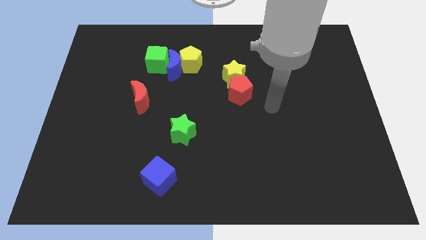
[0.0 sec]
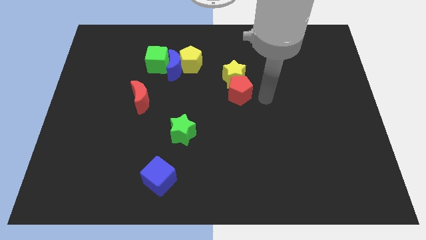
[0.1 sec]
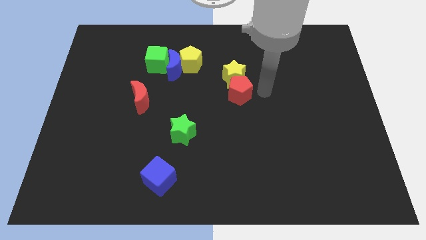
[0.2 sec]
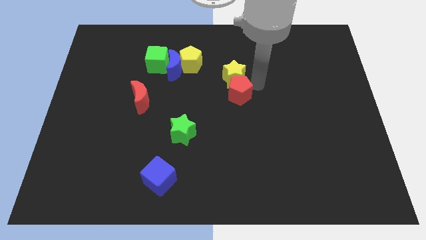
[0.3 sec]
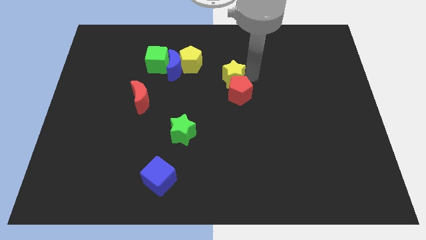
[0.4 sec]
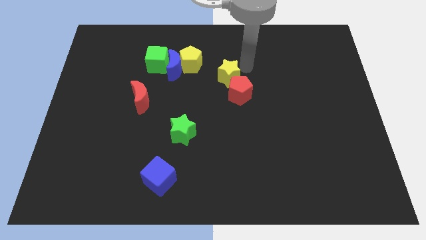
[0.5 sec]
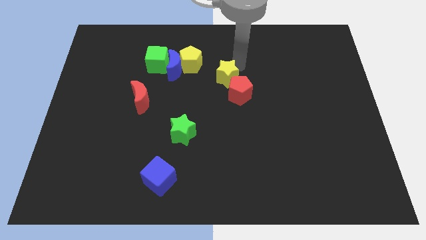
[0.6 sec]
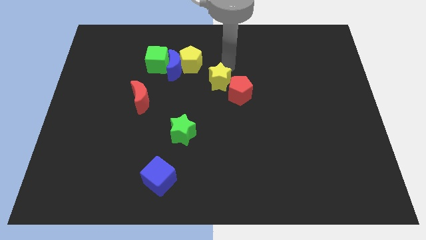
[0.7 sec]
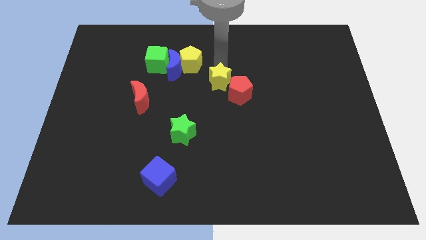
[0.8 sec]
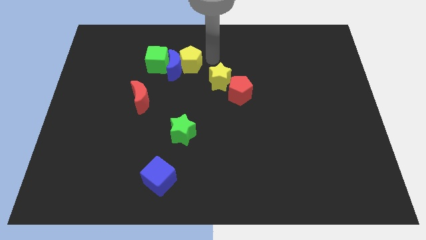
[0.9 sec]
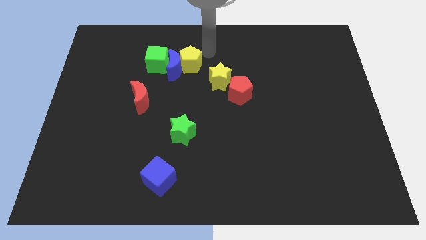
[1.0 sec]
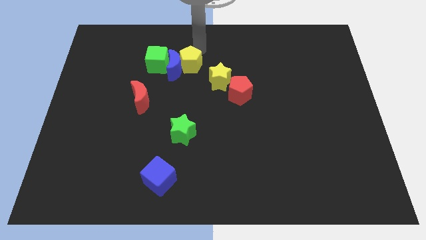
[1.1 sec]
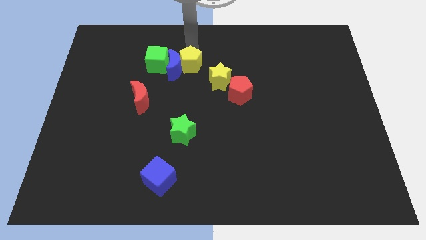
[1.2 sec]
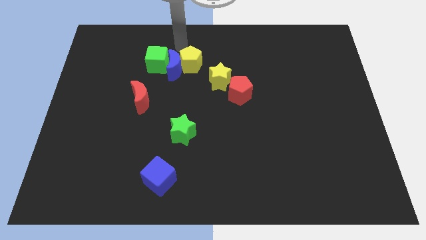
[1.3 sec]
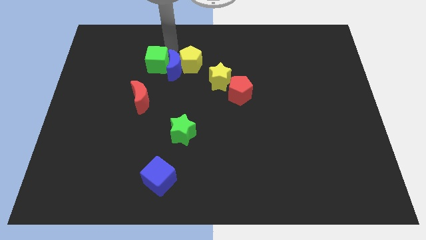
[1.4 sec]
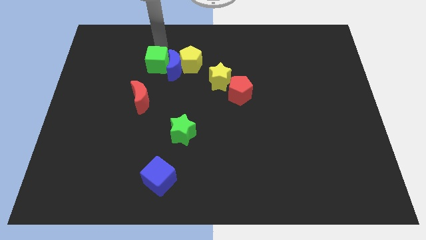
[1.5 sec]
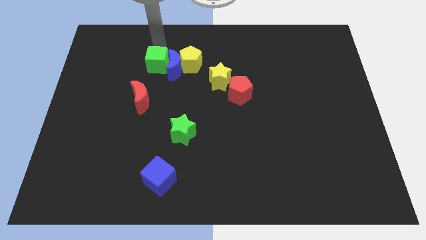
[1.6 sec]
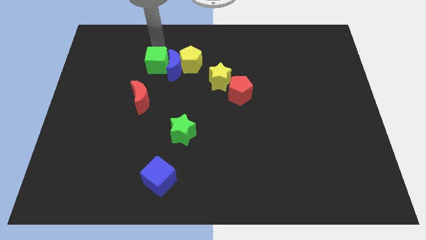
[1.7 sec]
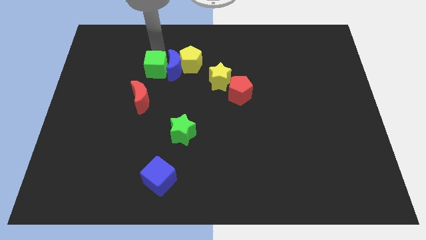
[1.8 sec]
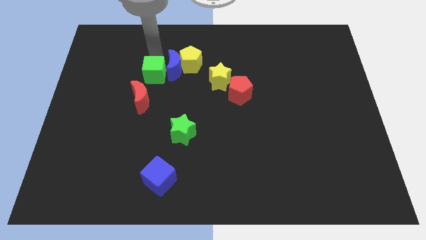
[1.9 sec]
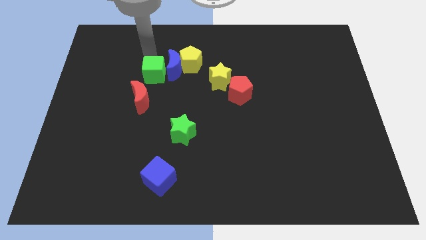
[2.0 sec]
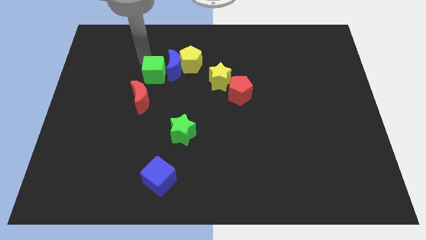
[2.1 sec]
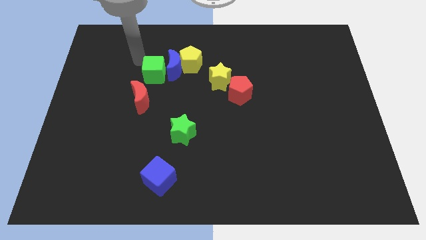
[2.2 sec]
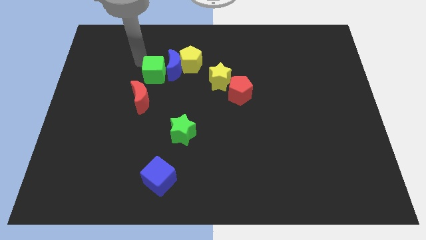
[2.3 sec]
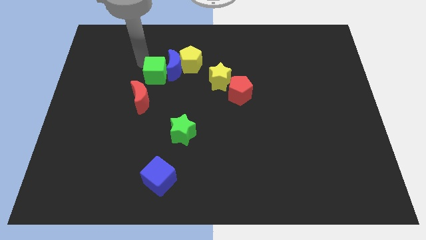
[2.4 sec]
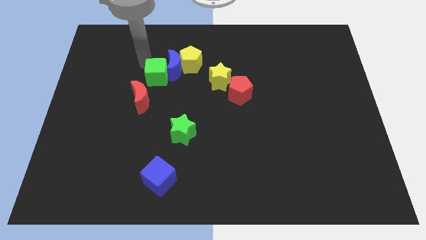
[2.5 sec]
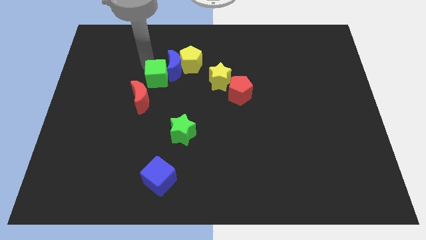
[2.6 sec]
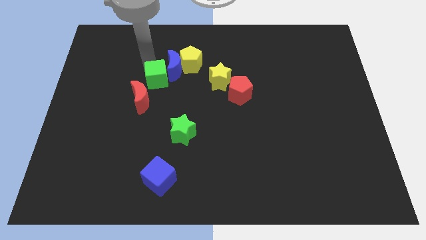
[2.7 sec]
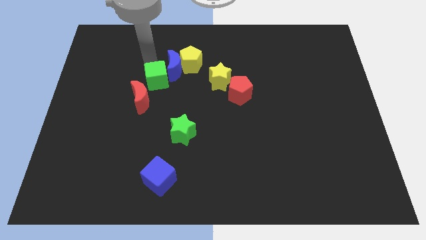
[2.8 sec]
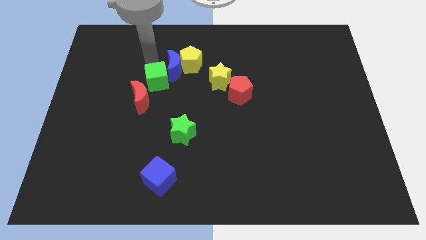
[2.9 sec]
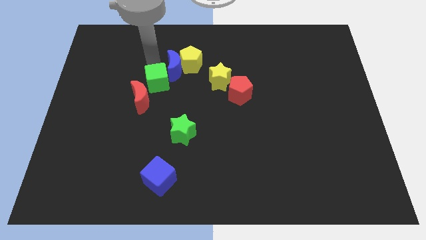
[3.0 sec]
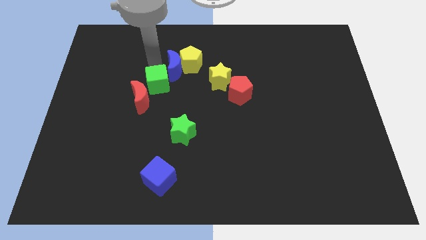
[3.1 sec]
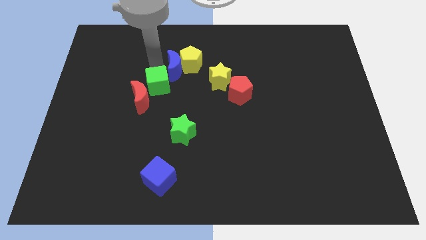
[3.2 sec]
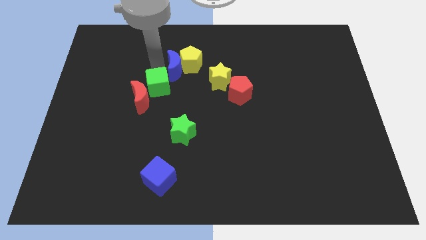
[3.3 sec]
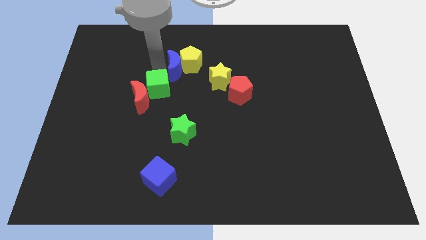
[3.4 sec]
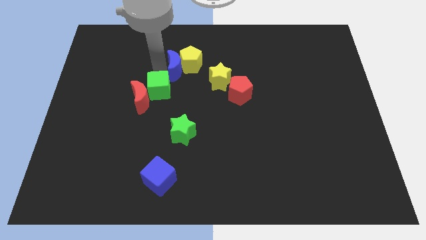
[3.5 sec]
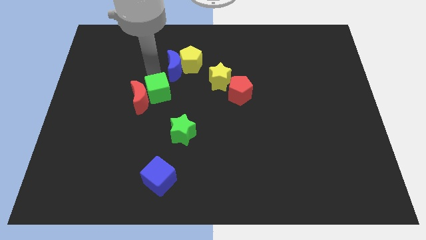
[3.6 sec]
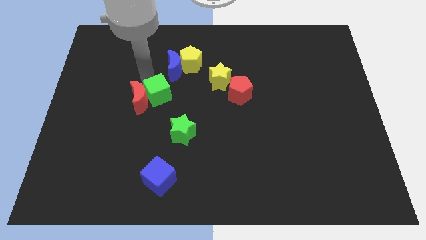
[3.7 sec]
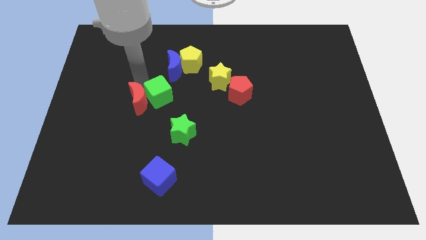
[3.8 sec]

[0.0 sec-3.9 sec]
slide the green cube downwards and to the right a little bit

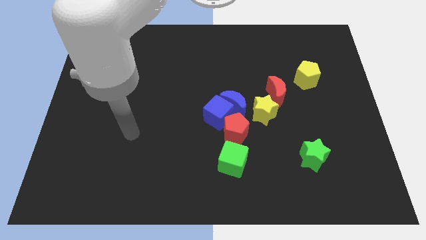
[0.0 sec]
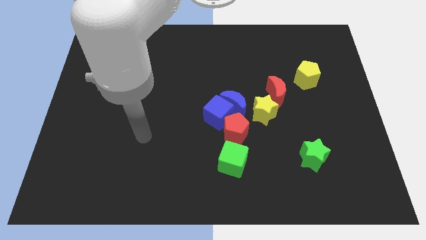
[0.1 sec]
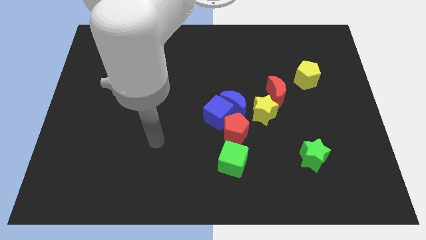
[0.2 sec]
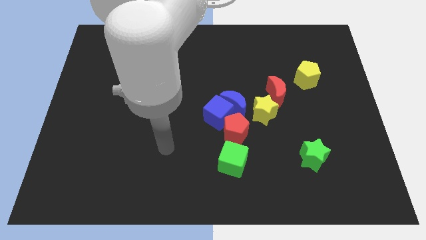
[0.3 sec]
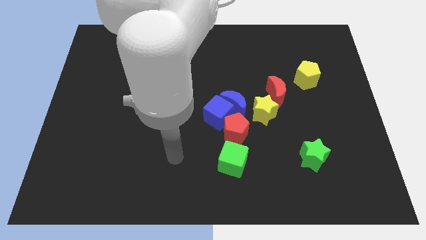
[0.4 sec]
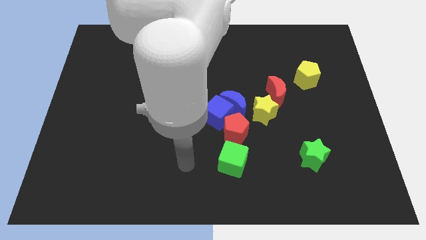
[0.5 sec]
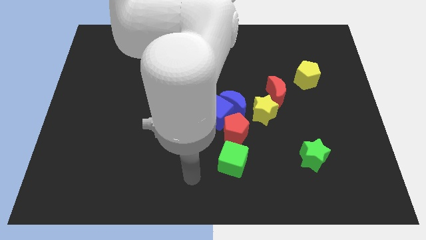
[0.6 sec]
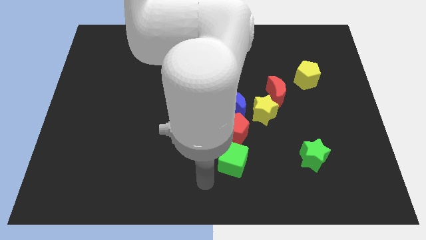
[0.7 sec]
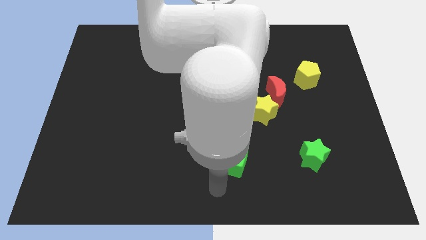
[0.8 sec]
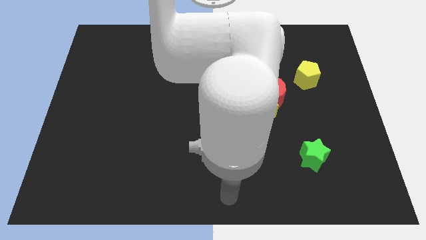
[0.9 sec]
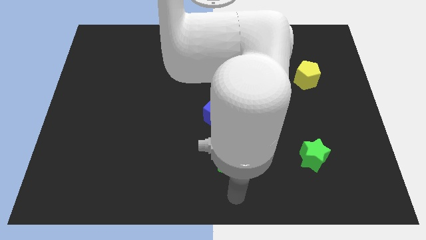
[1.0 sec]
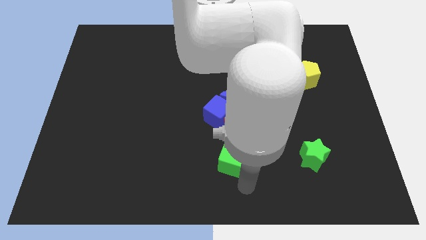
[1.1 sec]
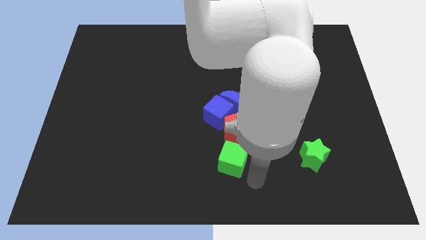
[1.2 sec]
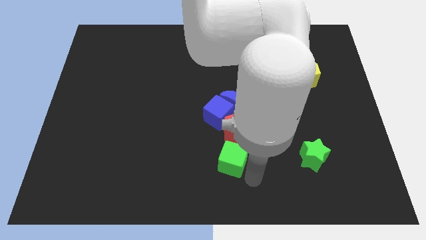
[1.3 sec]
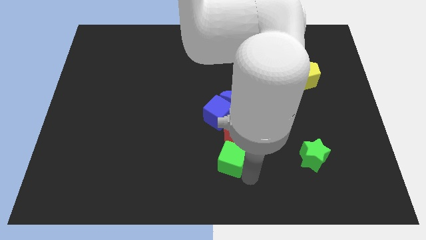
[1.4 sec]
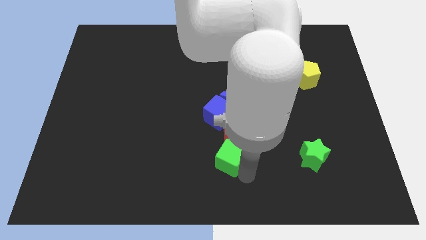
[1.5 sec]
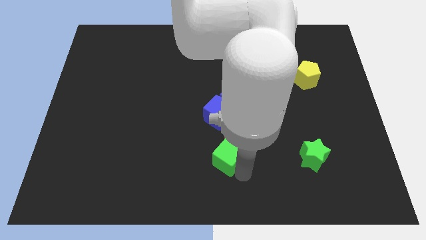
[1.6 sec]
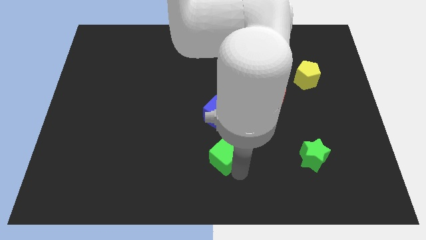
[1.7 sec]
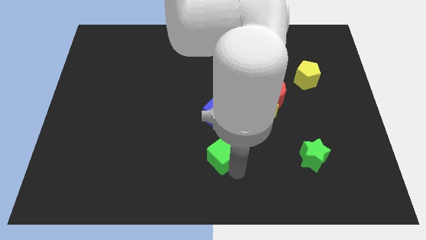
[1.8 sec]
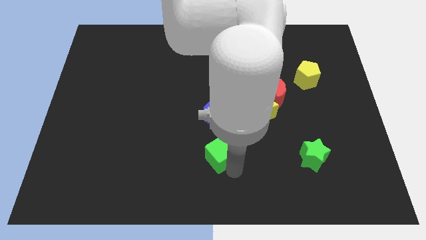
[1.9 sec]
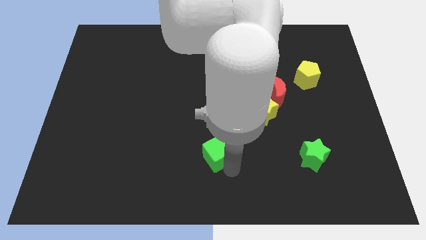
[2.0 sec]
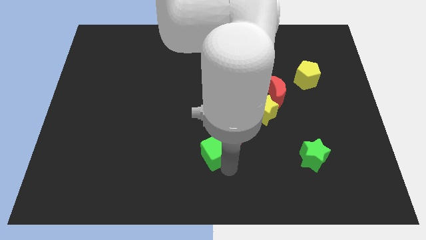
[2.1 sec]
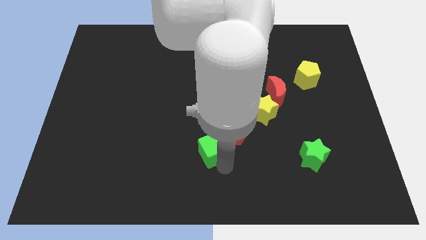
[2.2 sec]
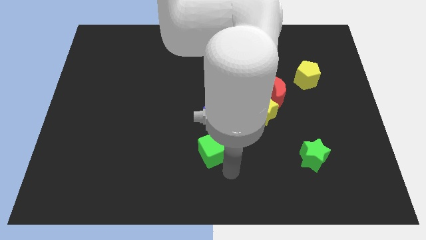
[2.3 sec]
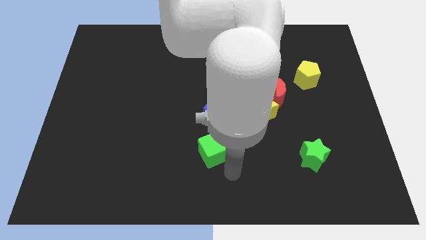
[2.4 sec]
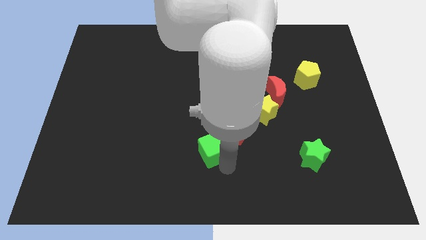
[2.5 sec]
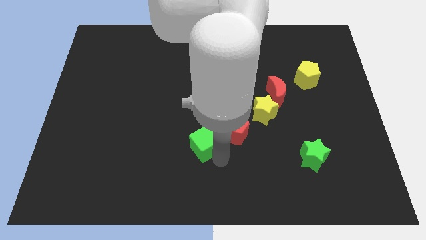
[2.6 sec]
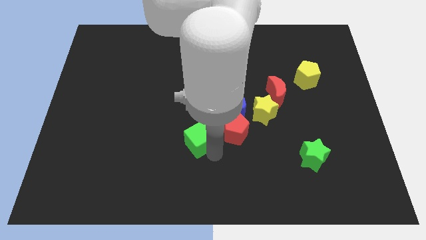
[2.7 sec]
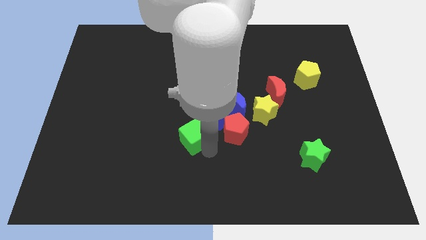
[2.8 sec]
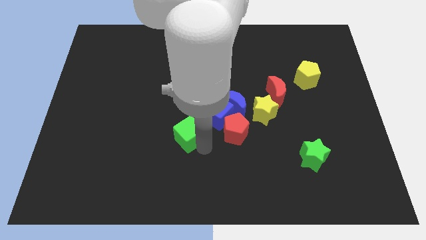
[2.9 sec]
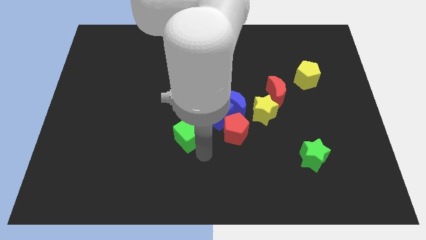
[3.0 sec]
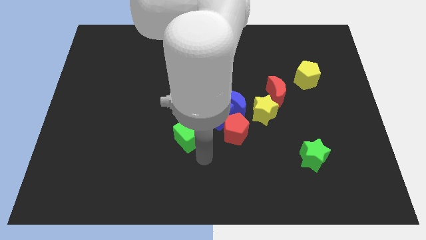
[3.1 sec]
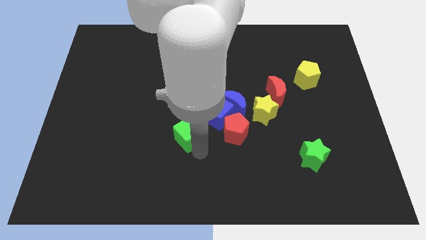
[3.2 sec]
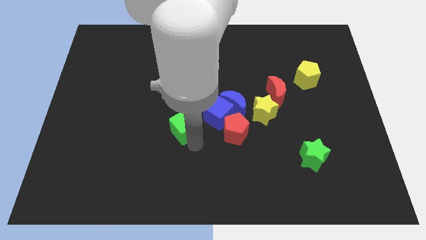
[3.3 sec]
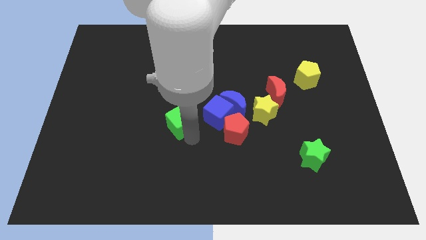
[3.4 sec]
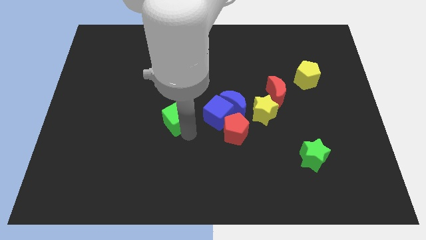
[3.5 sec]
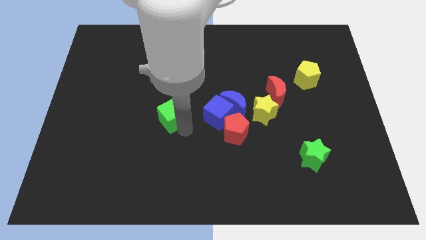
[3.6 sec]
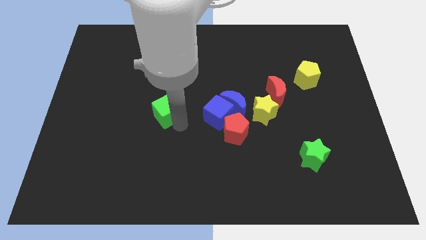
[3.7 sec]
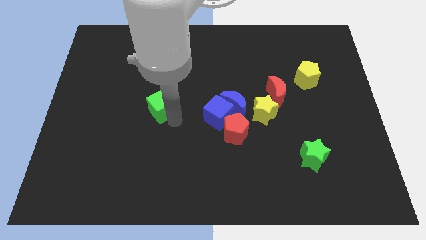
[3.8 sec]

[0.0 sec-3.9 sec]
push the green cube diagonally upwards and to the left

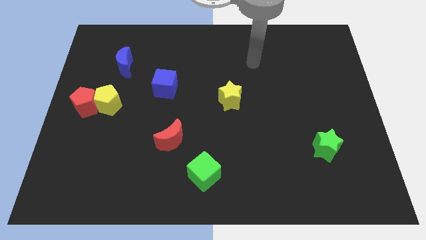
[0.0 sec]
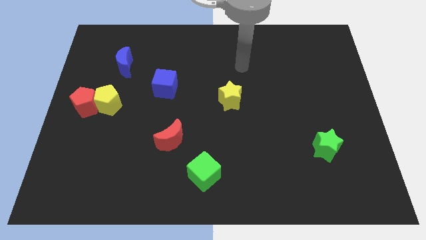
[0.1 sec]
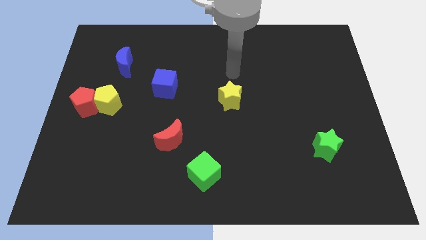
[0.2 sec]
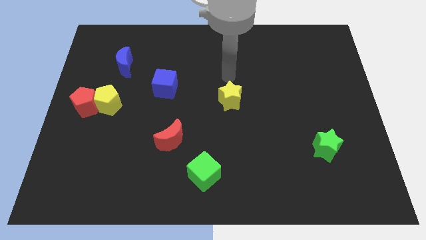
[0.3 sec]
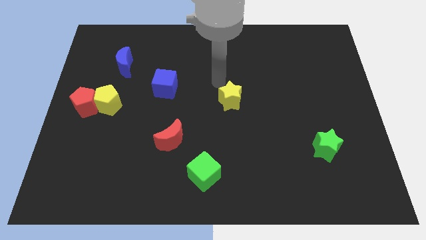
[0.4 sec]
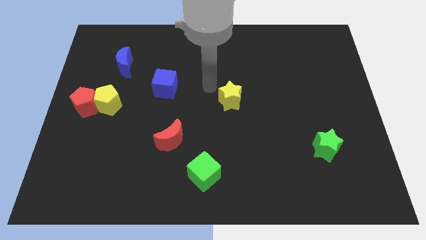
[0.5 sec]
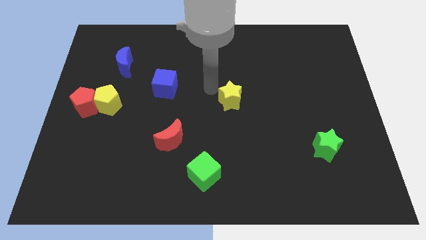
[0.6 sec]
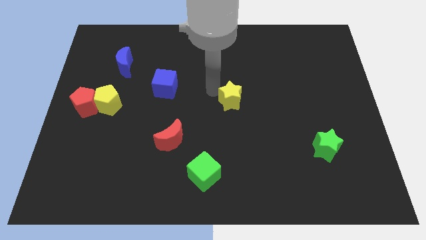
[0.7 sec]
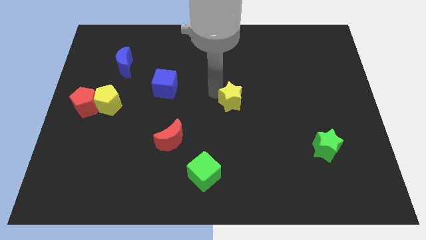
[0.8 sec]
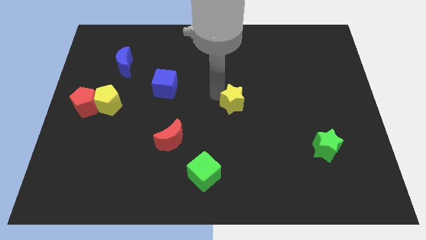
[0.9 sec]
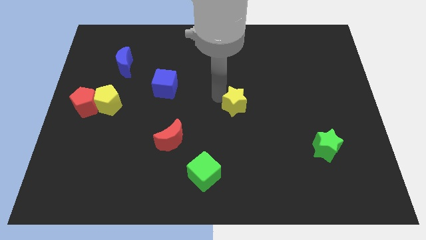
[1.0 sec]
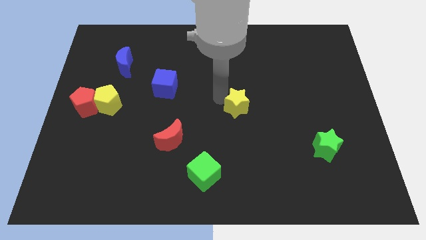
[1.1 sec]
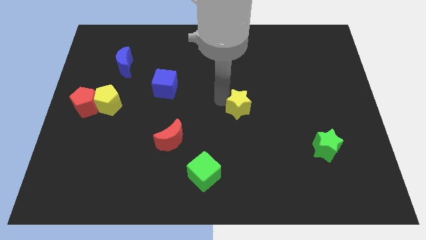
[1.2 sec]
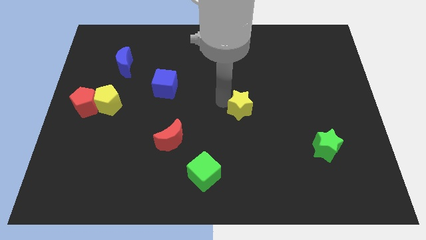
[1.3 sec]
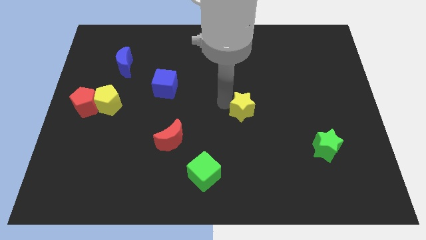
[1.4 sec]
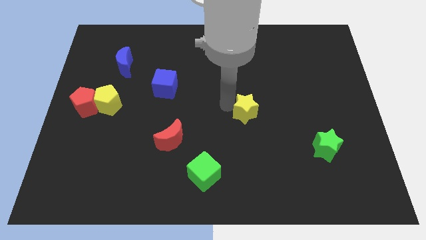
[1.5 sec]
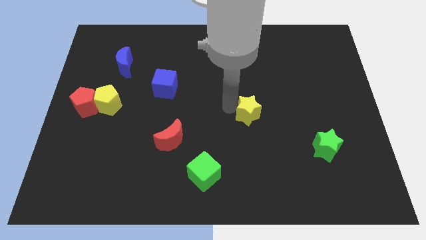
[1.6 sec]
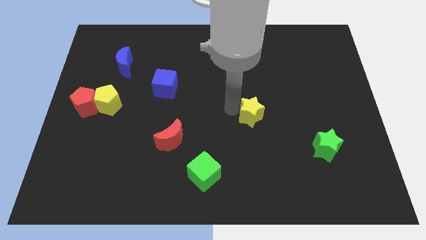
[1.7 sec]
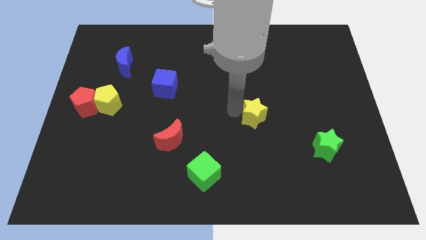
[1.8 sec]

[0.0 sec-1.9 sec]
push the yellow star somewhat downwards and right
